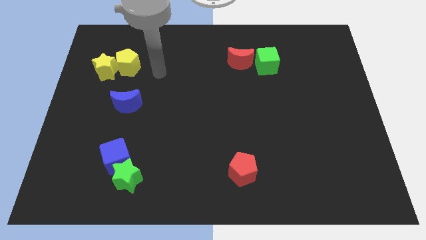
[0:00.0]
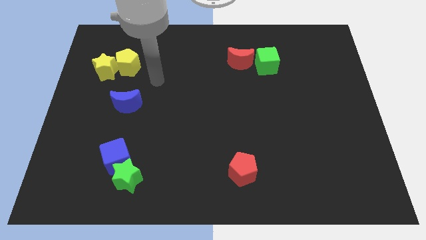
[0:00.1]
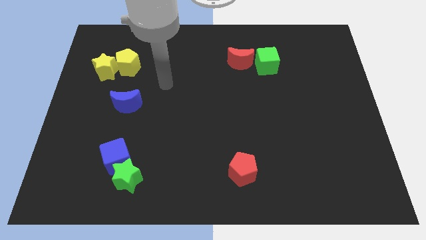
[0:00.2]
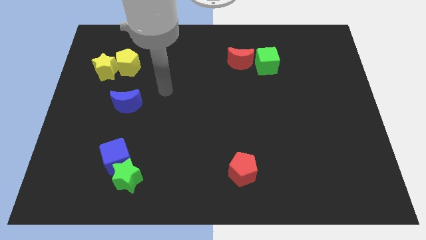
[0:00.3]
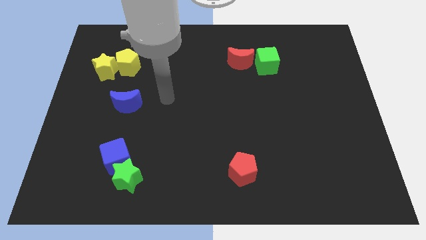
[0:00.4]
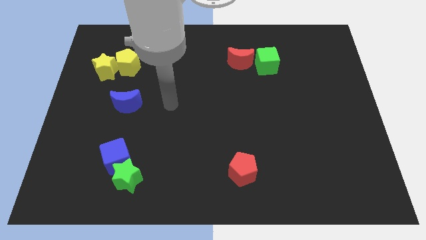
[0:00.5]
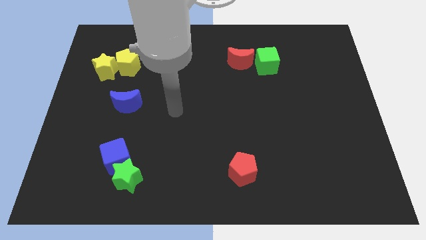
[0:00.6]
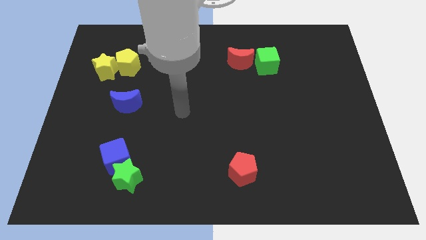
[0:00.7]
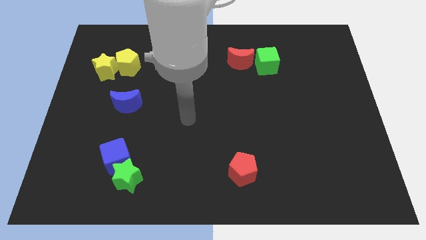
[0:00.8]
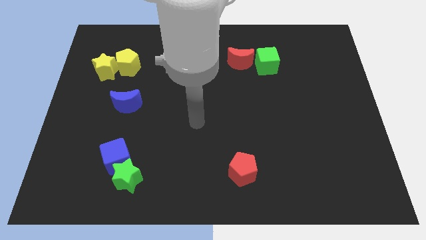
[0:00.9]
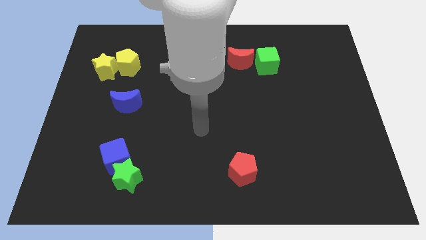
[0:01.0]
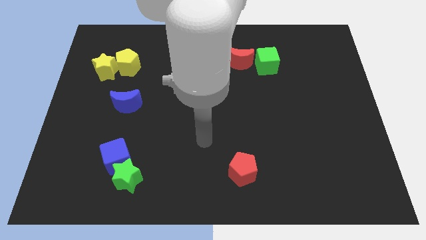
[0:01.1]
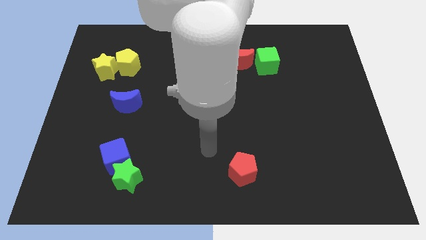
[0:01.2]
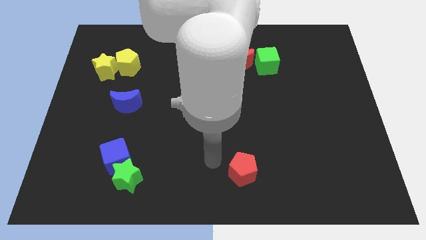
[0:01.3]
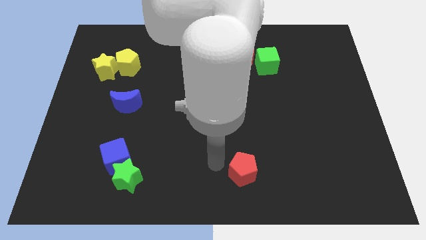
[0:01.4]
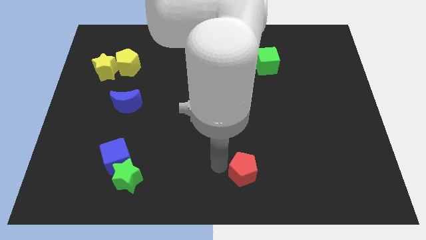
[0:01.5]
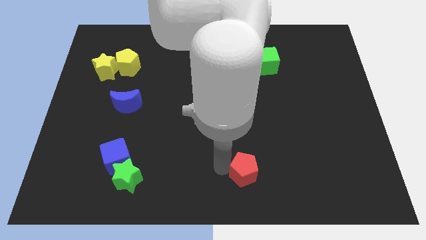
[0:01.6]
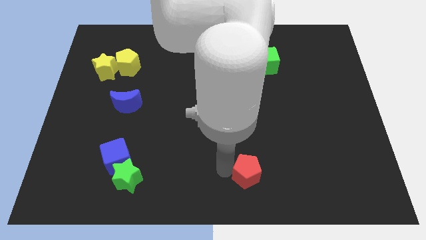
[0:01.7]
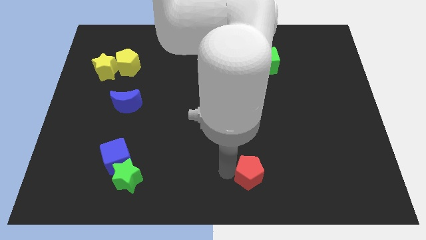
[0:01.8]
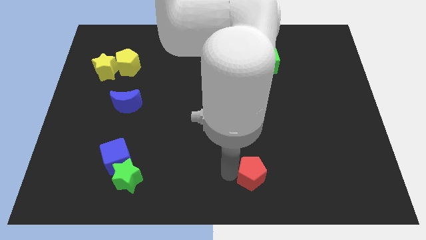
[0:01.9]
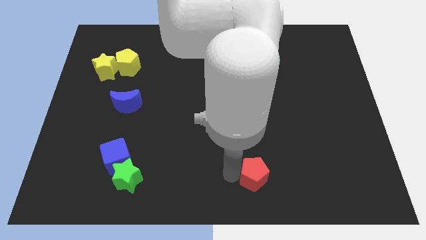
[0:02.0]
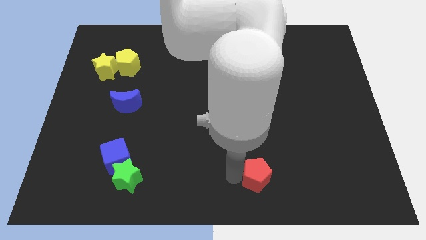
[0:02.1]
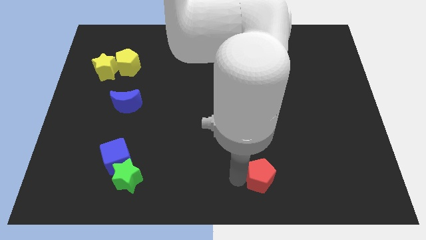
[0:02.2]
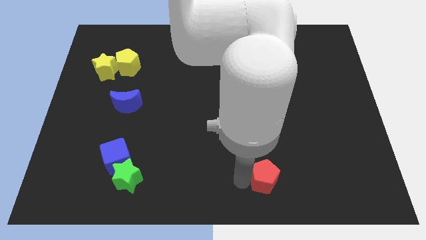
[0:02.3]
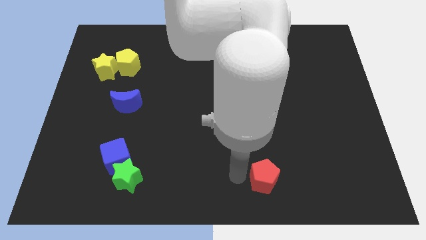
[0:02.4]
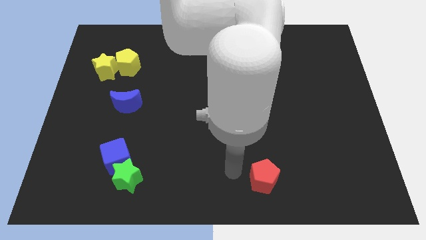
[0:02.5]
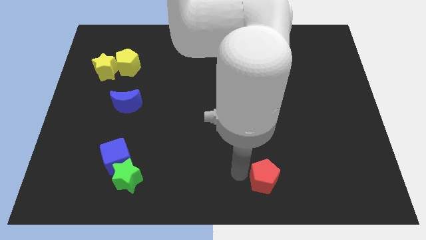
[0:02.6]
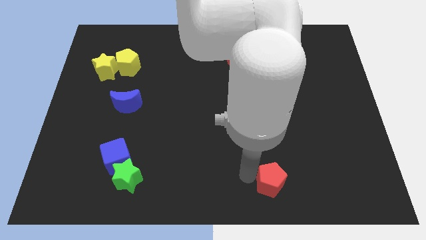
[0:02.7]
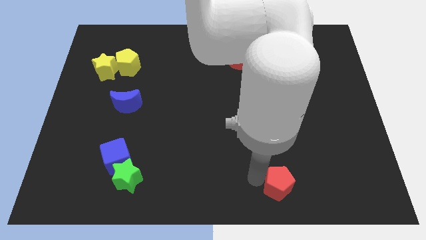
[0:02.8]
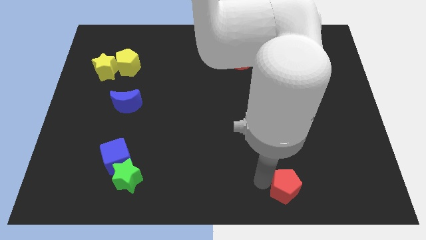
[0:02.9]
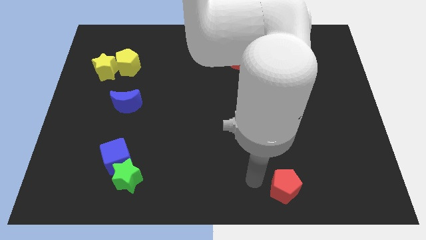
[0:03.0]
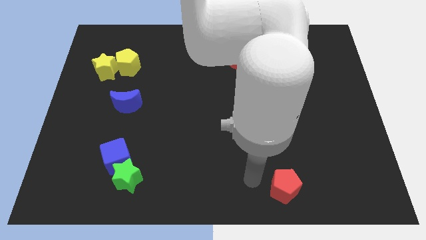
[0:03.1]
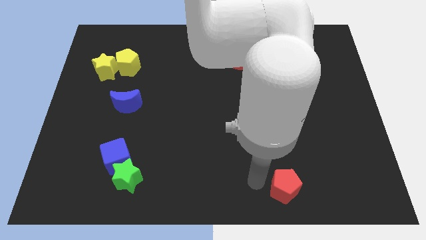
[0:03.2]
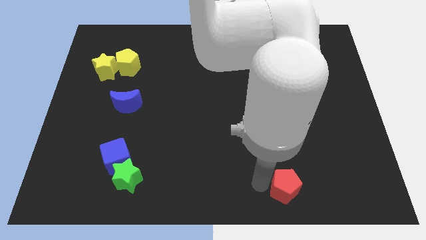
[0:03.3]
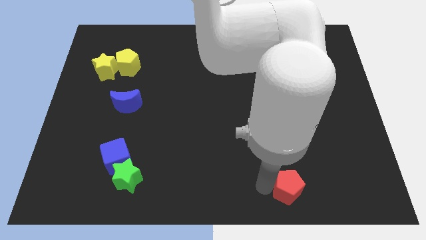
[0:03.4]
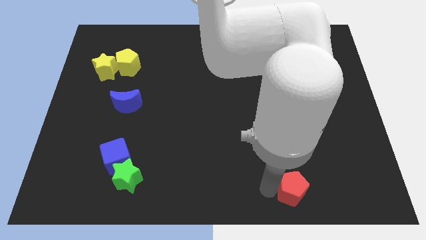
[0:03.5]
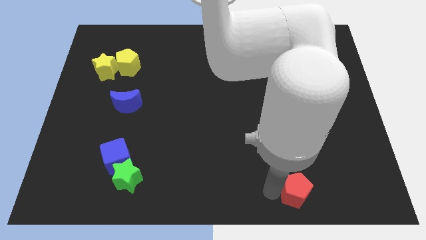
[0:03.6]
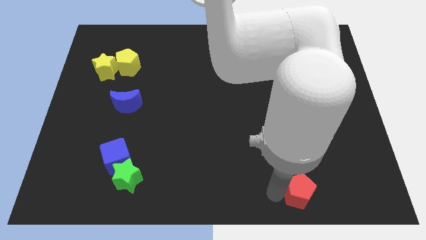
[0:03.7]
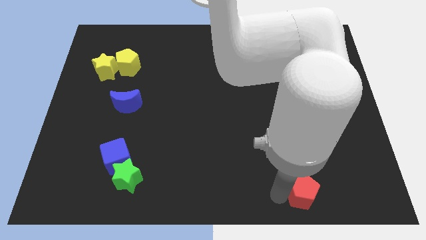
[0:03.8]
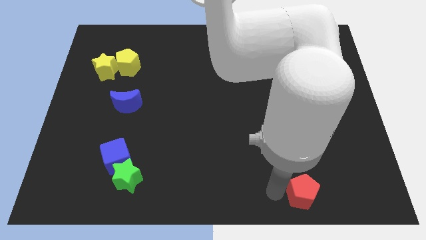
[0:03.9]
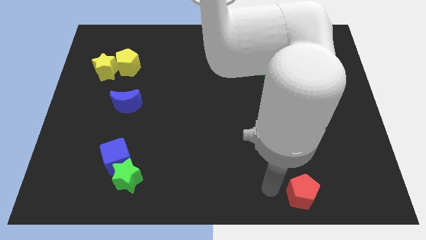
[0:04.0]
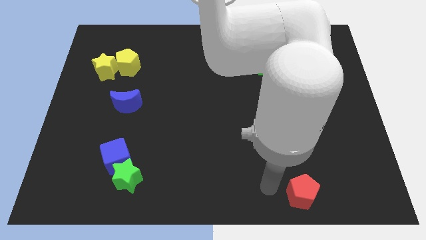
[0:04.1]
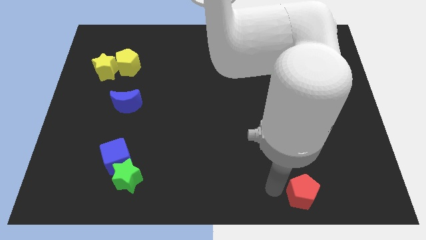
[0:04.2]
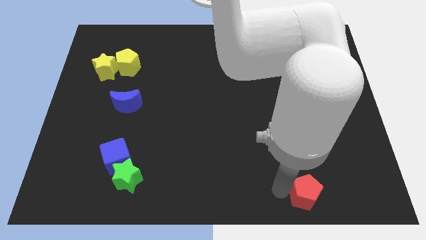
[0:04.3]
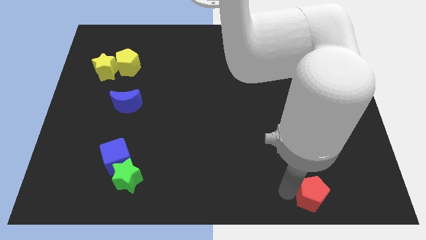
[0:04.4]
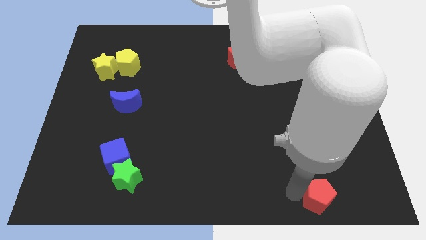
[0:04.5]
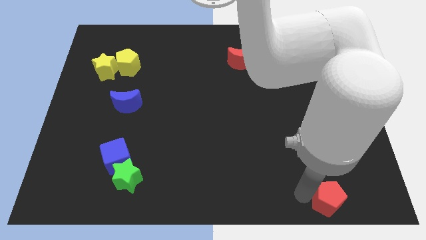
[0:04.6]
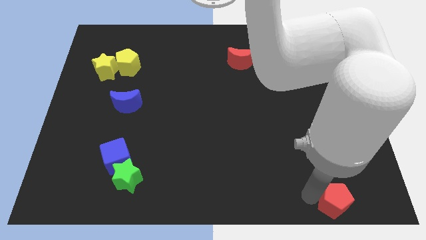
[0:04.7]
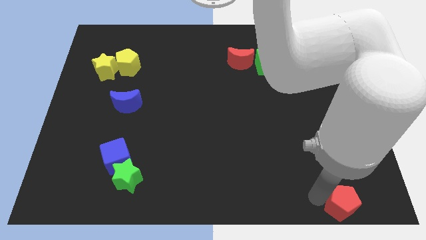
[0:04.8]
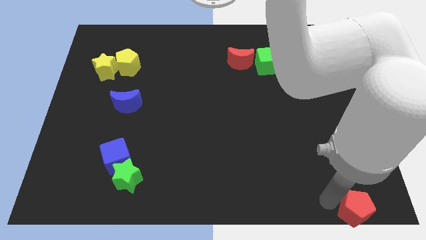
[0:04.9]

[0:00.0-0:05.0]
slide the red pentagon to the bottom right of the board

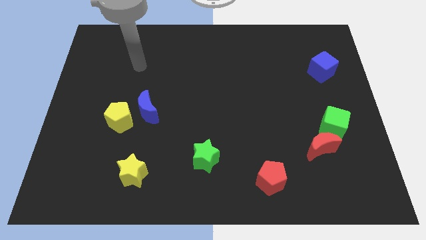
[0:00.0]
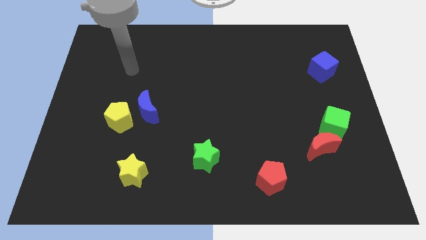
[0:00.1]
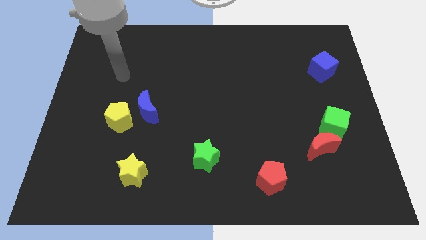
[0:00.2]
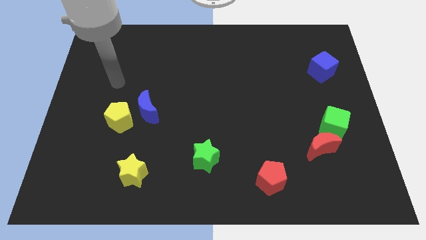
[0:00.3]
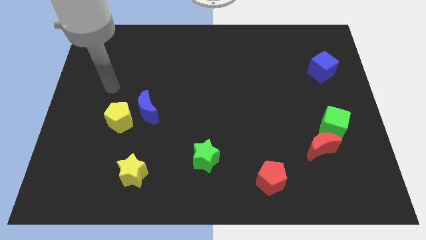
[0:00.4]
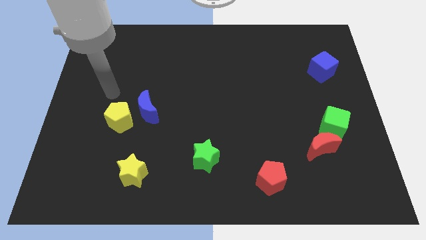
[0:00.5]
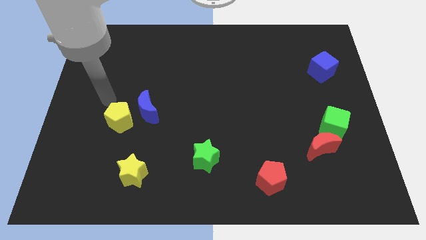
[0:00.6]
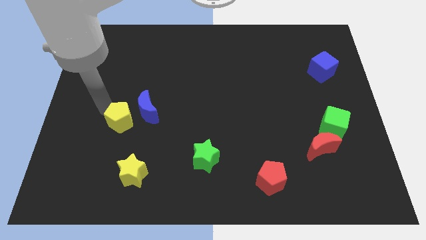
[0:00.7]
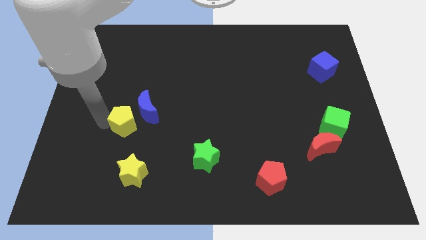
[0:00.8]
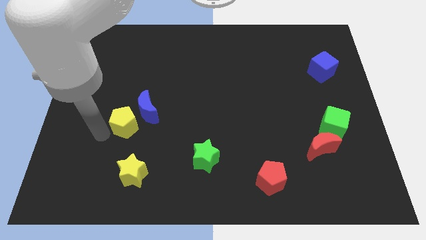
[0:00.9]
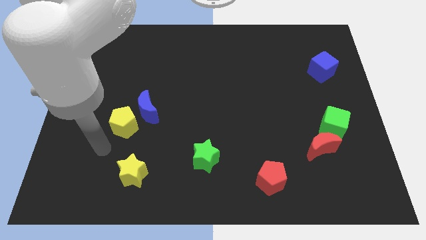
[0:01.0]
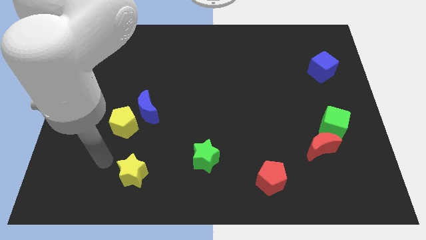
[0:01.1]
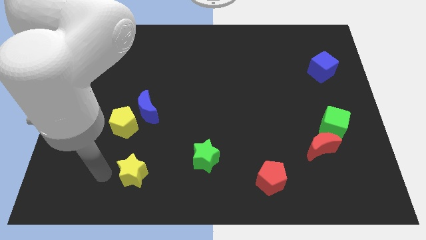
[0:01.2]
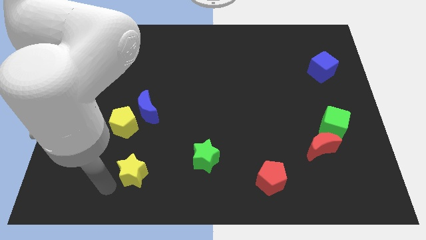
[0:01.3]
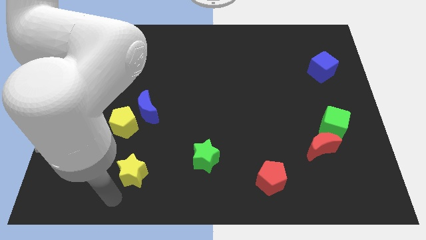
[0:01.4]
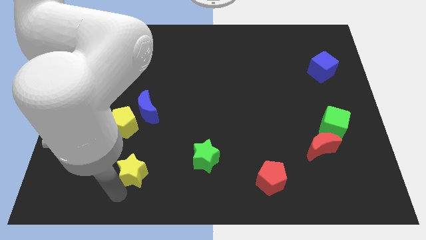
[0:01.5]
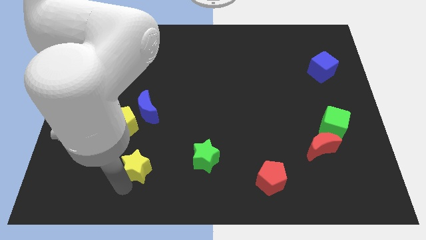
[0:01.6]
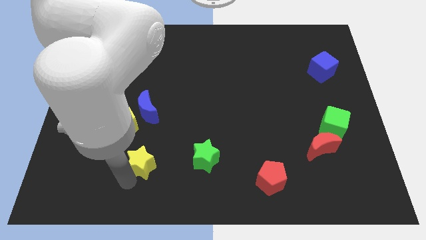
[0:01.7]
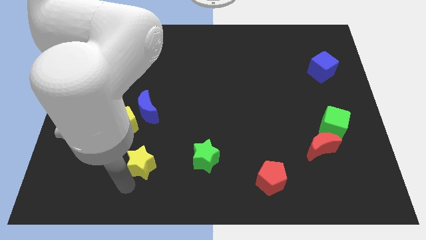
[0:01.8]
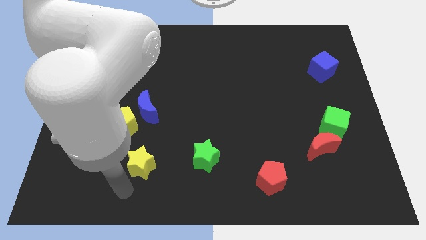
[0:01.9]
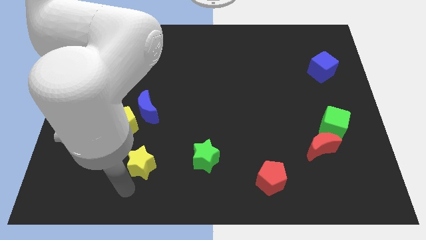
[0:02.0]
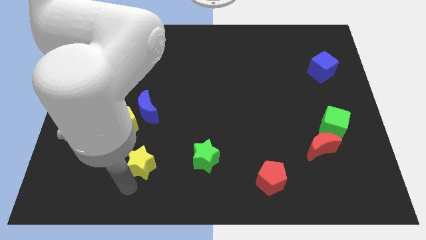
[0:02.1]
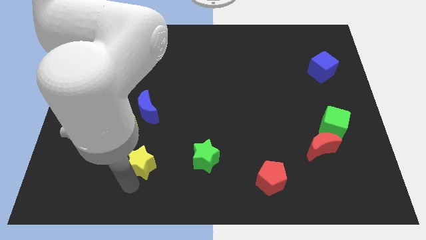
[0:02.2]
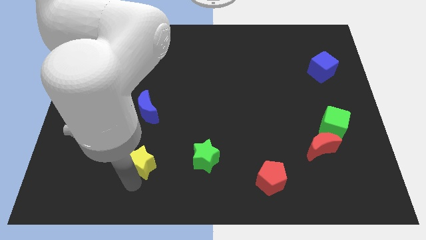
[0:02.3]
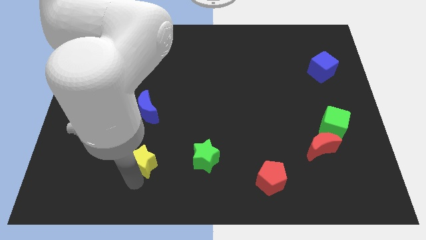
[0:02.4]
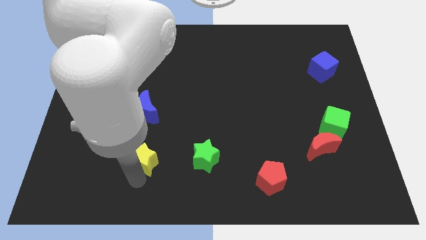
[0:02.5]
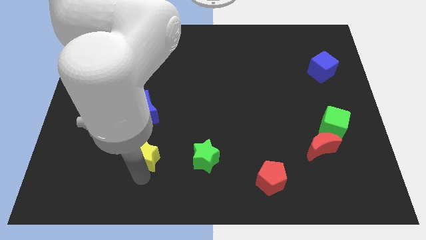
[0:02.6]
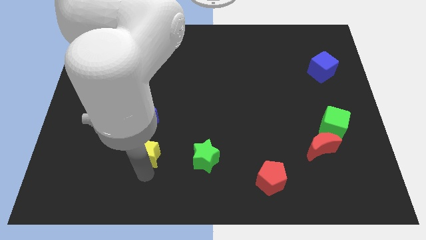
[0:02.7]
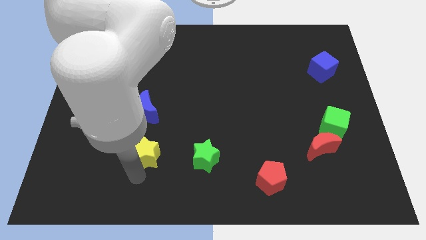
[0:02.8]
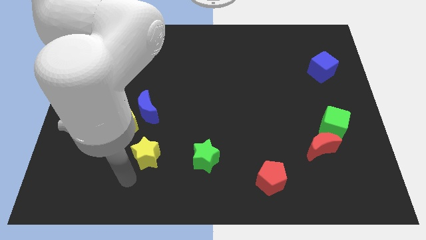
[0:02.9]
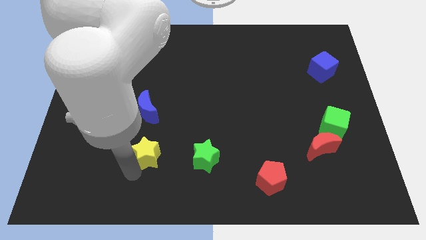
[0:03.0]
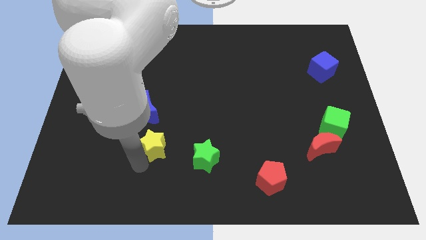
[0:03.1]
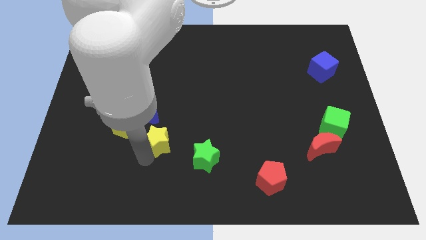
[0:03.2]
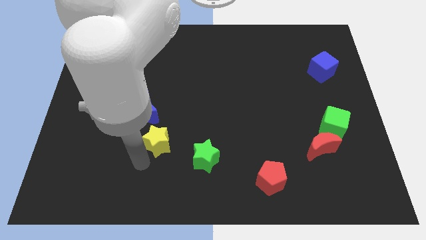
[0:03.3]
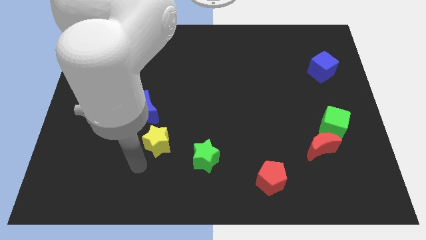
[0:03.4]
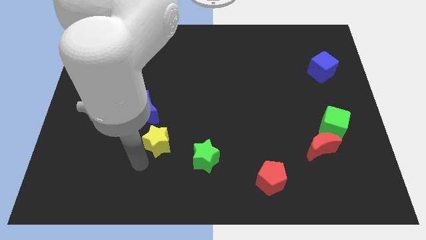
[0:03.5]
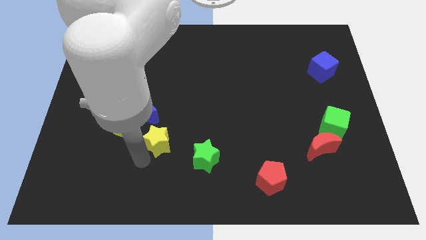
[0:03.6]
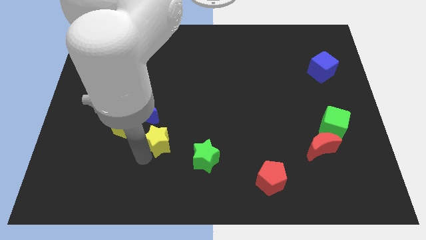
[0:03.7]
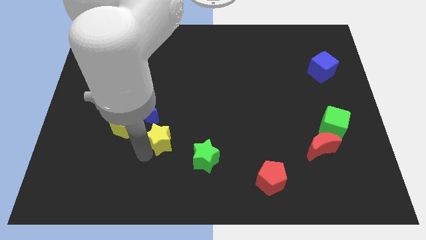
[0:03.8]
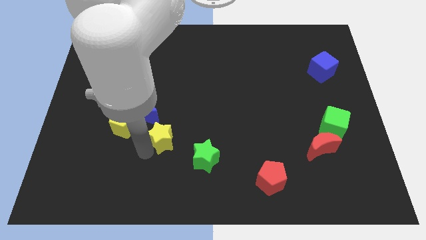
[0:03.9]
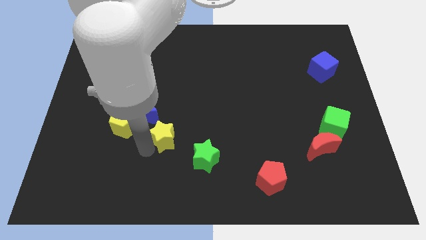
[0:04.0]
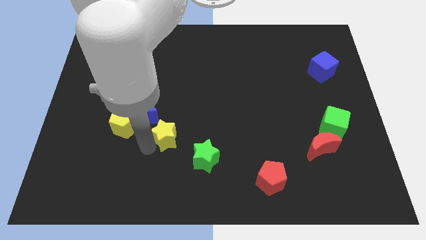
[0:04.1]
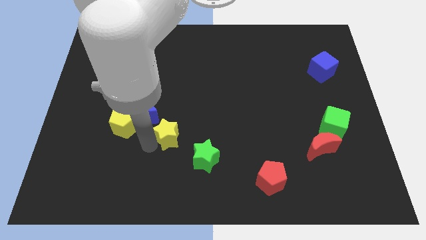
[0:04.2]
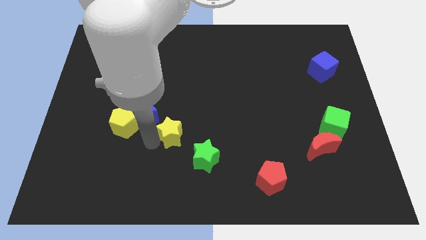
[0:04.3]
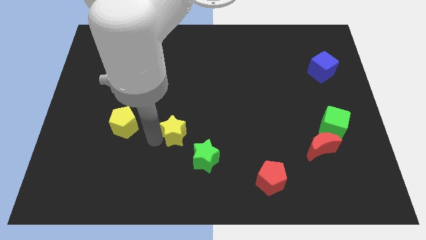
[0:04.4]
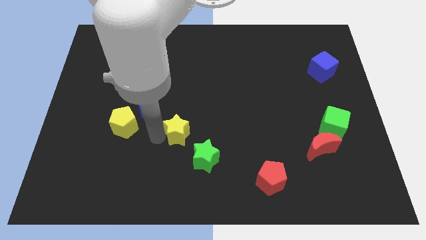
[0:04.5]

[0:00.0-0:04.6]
move the yellow star to the center of the board
